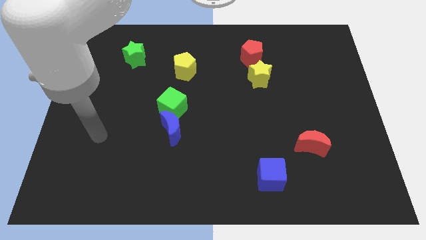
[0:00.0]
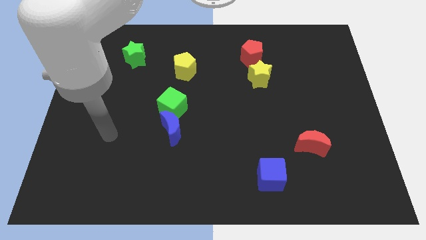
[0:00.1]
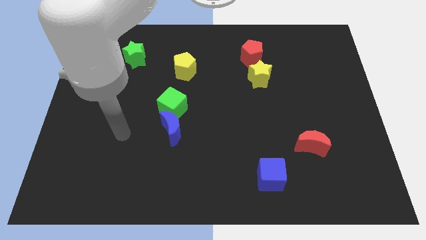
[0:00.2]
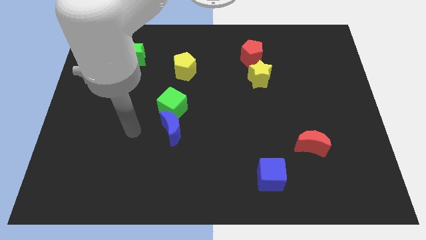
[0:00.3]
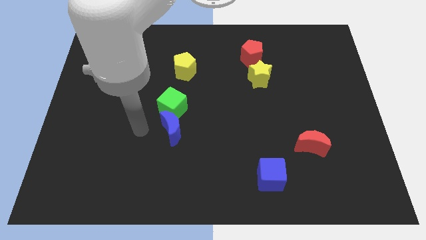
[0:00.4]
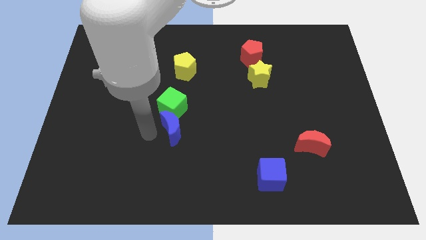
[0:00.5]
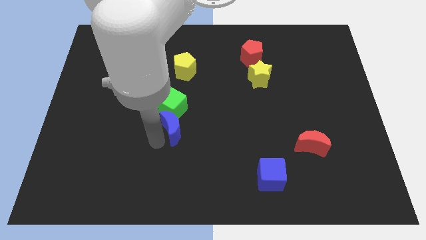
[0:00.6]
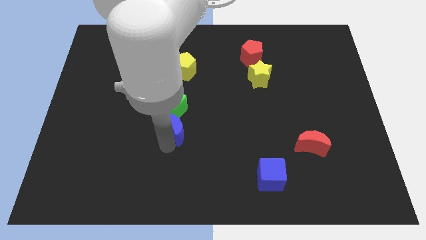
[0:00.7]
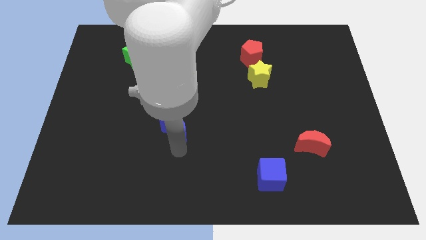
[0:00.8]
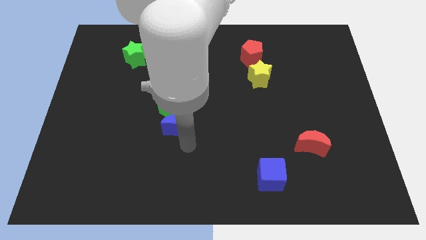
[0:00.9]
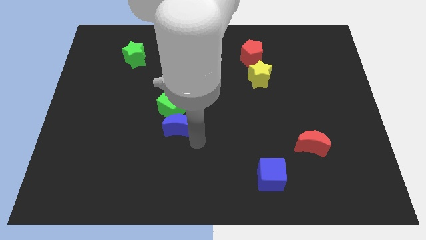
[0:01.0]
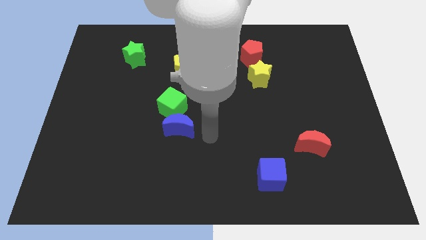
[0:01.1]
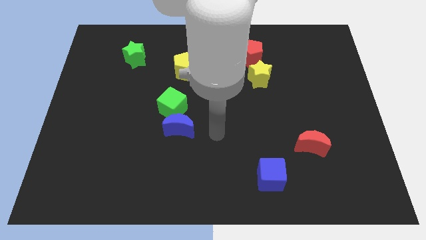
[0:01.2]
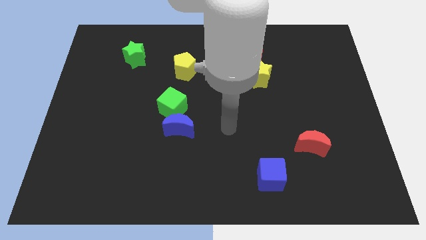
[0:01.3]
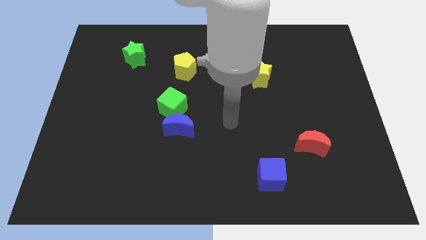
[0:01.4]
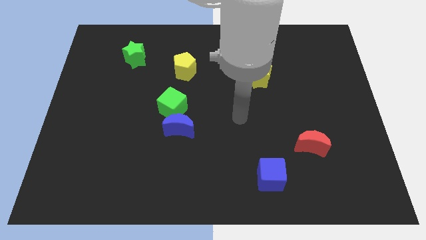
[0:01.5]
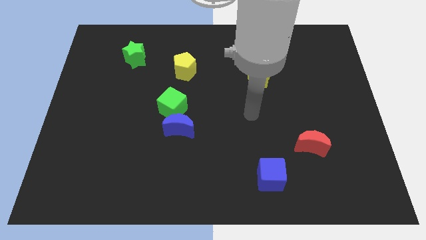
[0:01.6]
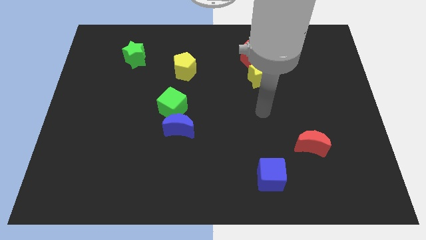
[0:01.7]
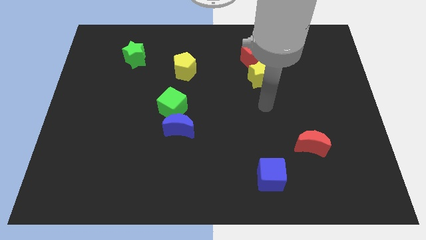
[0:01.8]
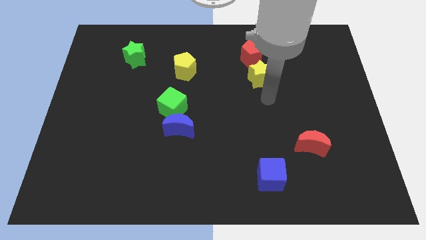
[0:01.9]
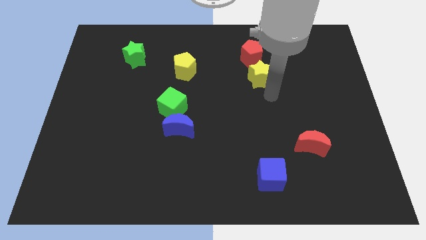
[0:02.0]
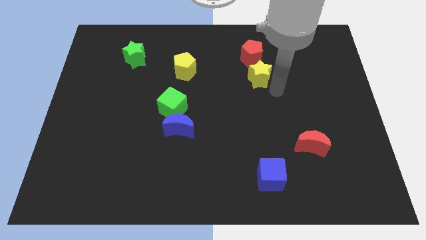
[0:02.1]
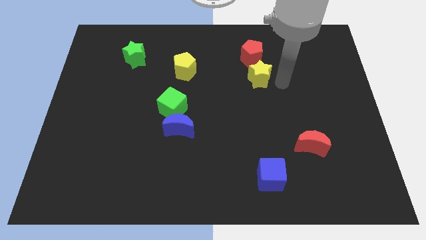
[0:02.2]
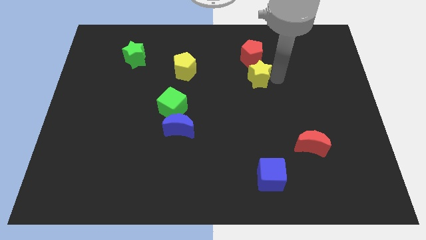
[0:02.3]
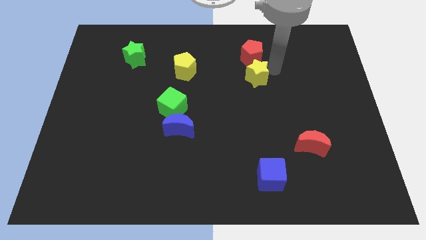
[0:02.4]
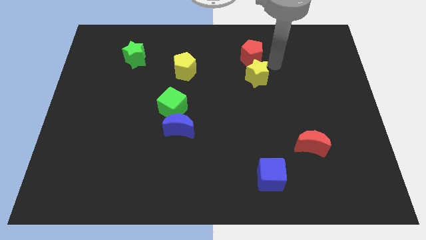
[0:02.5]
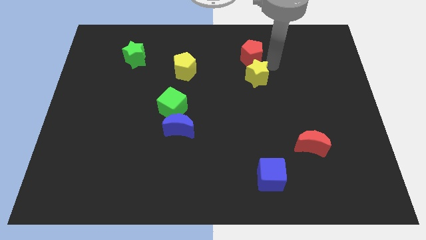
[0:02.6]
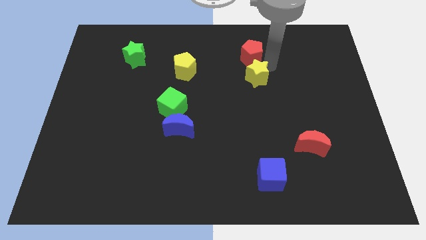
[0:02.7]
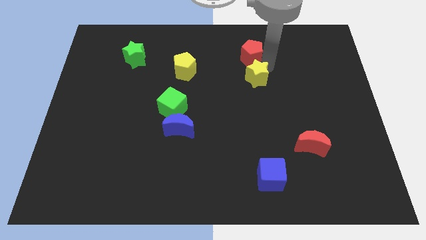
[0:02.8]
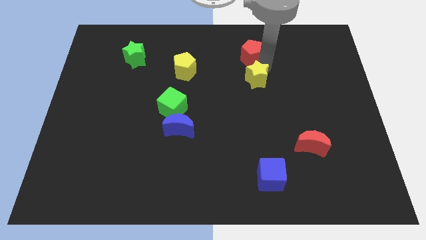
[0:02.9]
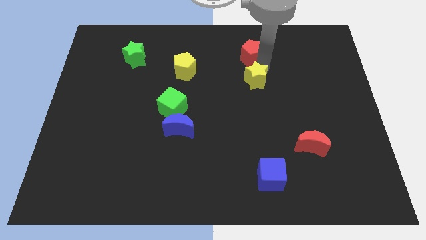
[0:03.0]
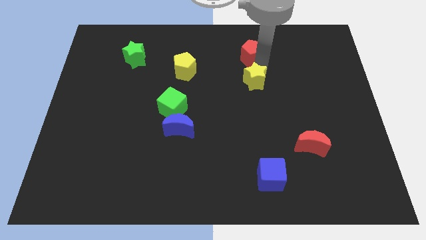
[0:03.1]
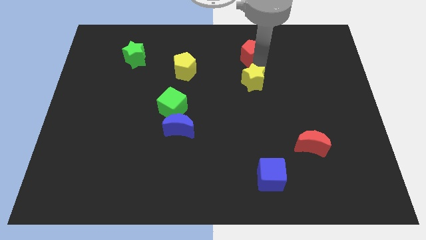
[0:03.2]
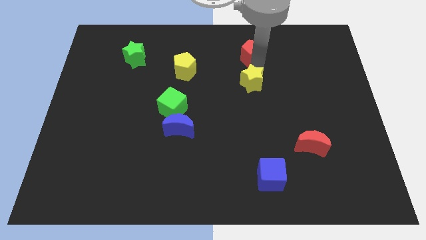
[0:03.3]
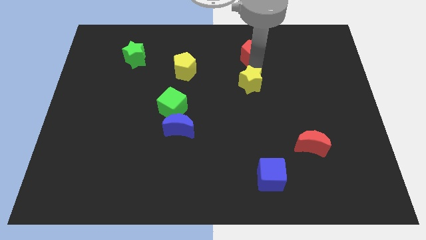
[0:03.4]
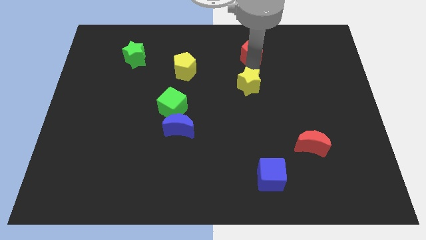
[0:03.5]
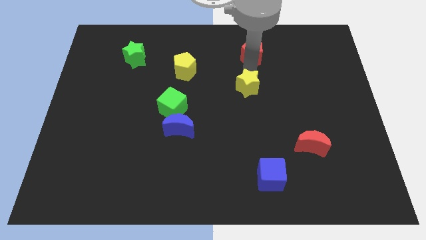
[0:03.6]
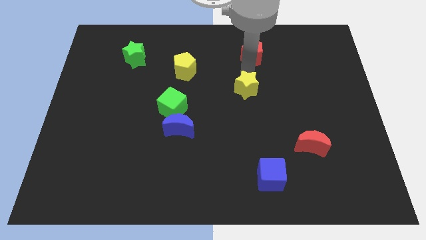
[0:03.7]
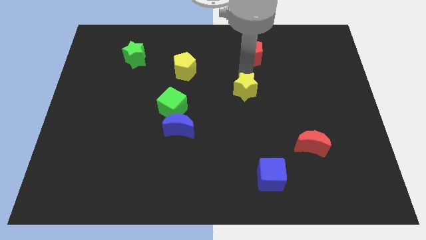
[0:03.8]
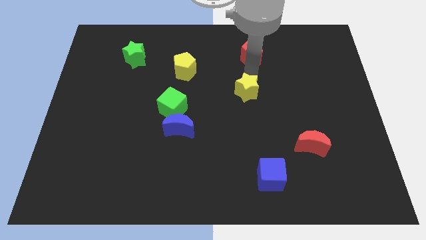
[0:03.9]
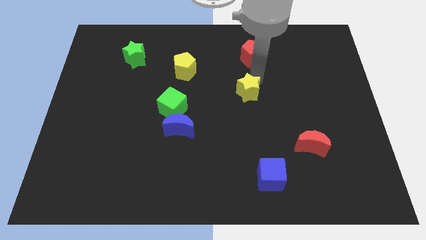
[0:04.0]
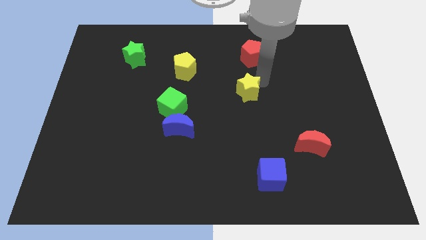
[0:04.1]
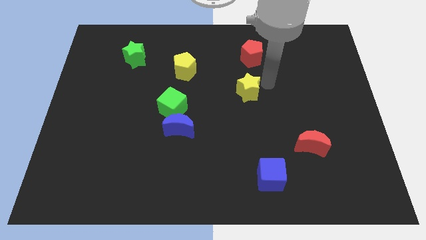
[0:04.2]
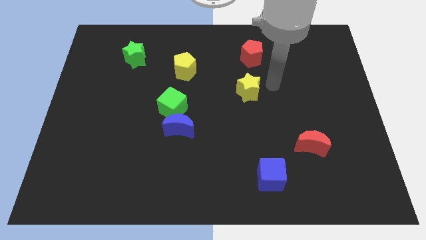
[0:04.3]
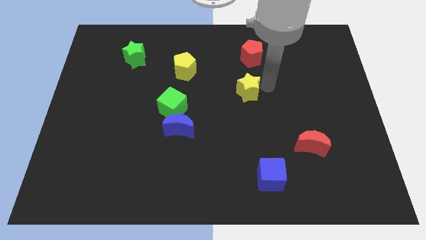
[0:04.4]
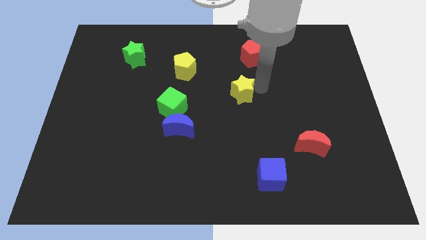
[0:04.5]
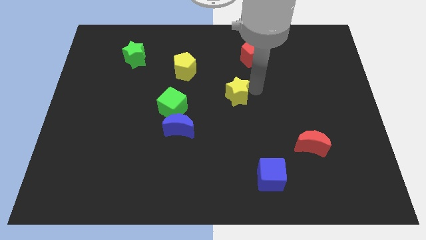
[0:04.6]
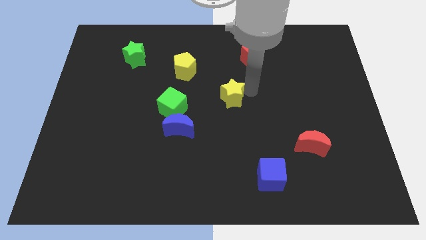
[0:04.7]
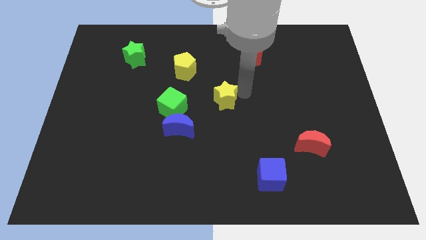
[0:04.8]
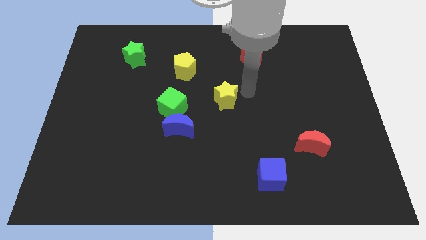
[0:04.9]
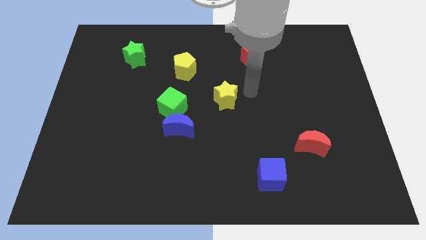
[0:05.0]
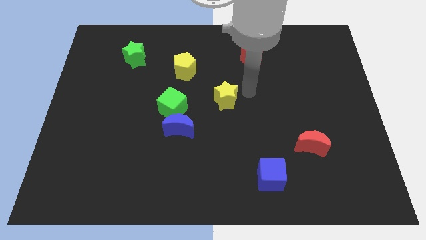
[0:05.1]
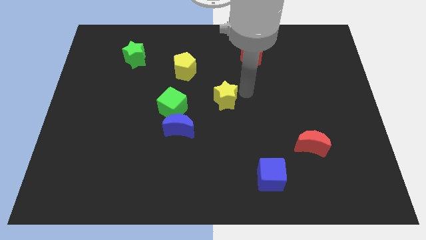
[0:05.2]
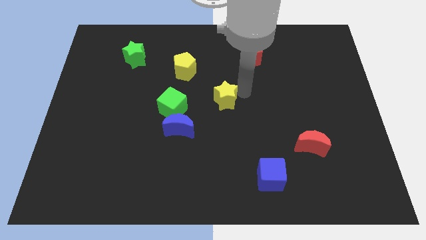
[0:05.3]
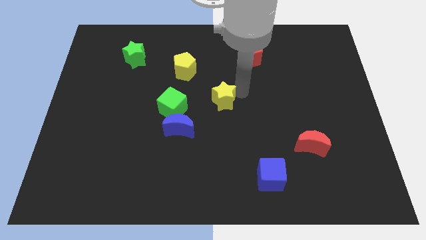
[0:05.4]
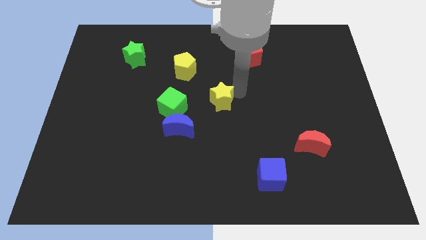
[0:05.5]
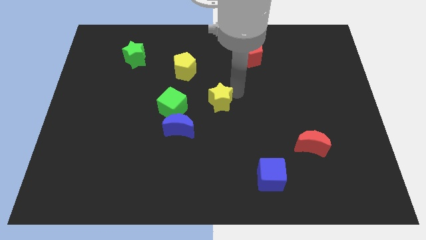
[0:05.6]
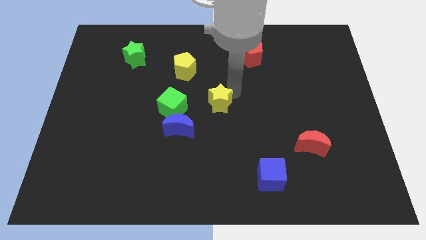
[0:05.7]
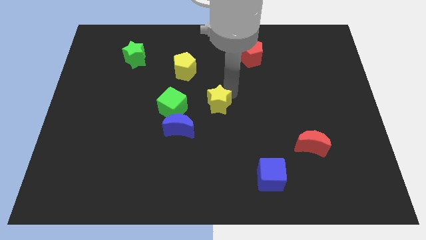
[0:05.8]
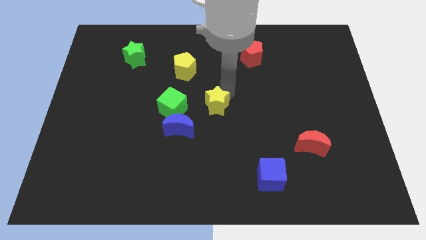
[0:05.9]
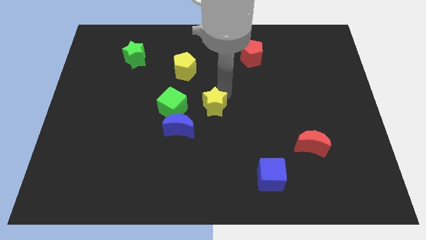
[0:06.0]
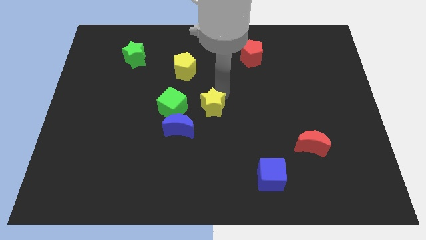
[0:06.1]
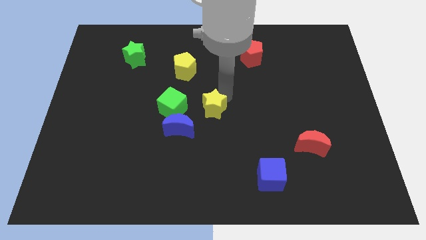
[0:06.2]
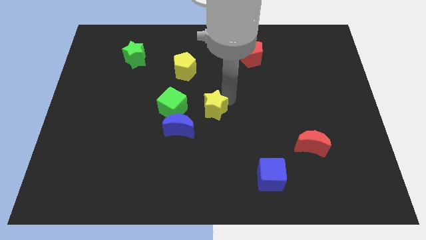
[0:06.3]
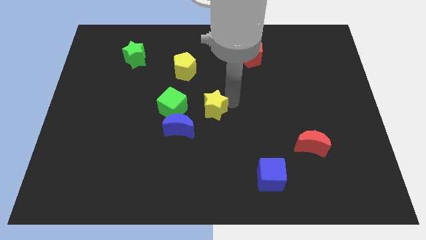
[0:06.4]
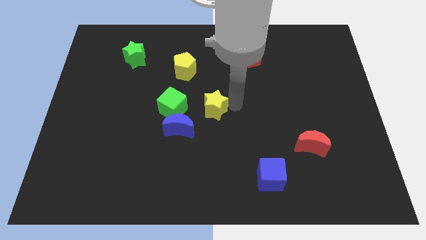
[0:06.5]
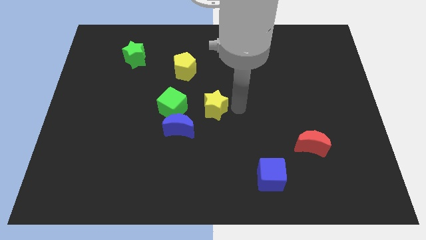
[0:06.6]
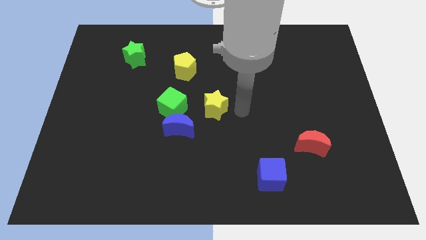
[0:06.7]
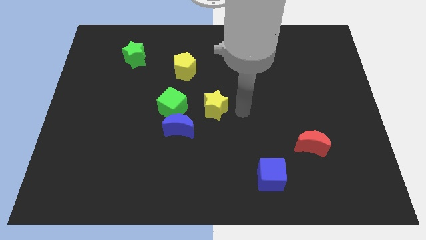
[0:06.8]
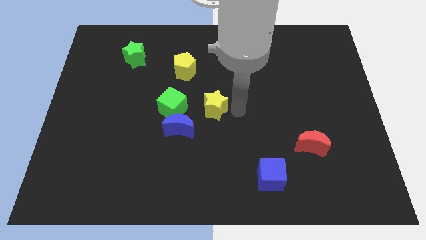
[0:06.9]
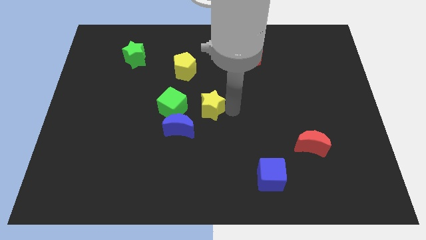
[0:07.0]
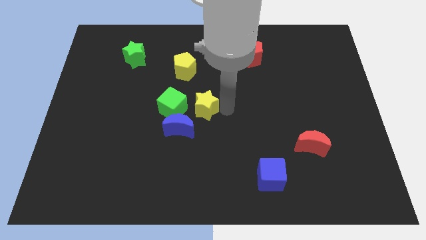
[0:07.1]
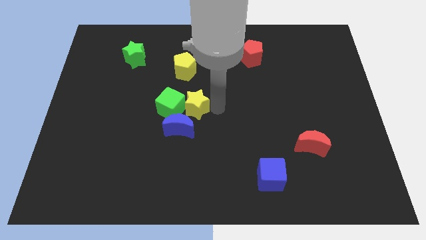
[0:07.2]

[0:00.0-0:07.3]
push the yellow star towards the green cube

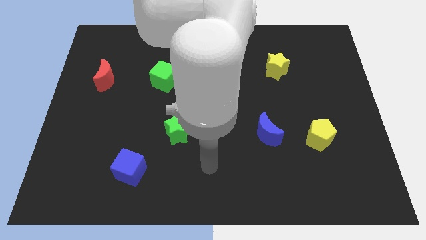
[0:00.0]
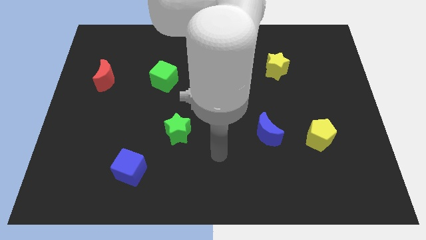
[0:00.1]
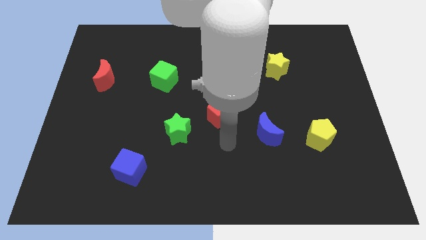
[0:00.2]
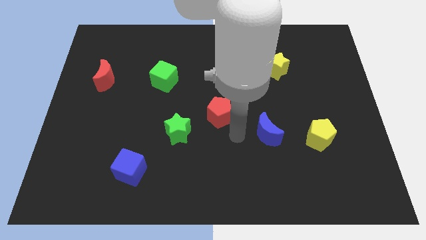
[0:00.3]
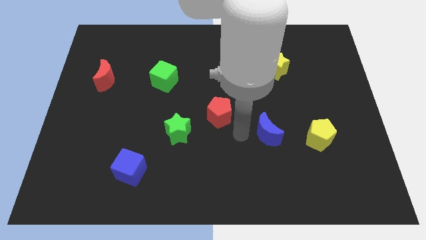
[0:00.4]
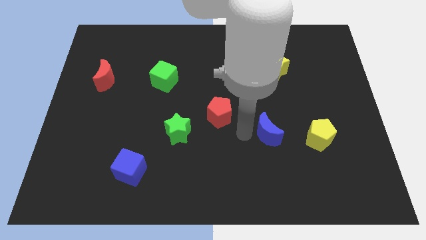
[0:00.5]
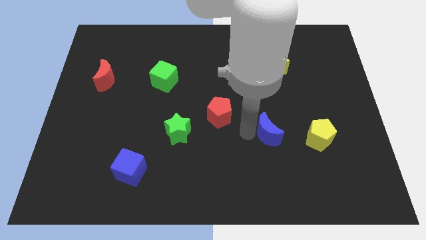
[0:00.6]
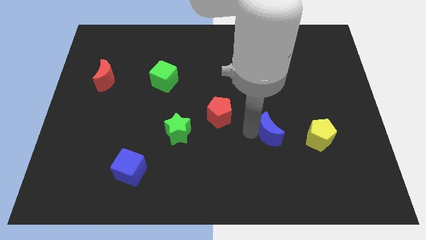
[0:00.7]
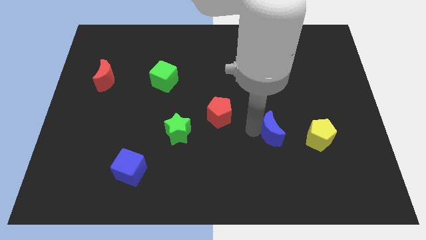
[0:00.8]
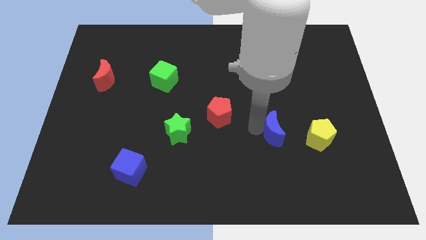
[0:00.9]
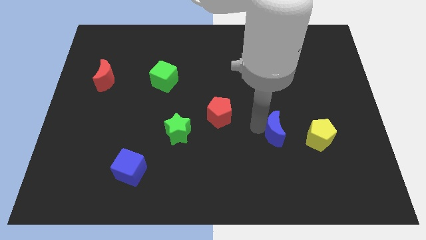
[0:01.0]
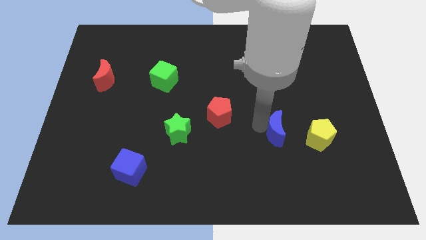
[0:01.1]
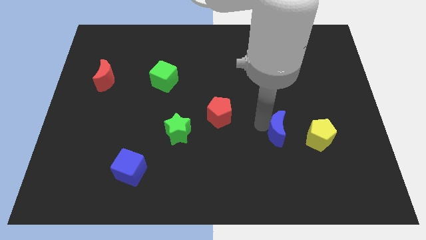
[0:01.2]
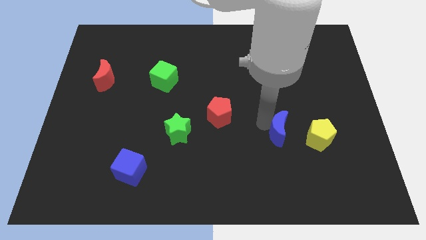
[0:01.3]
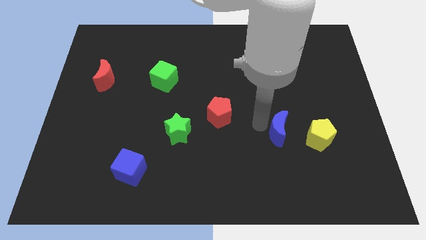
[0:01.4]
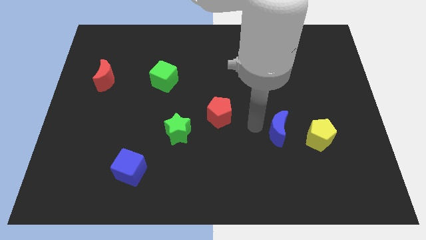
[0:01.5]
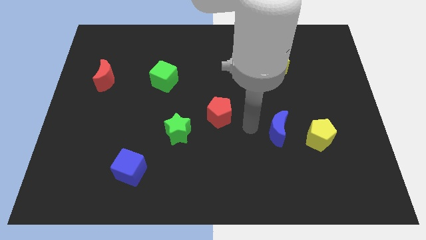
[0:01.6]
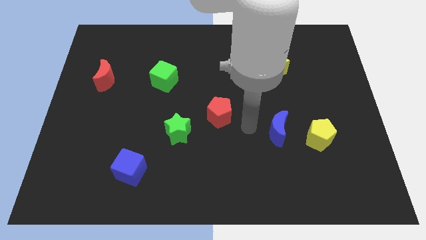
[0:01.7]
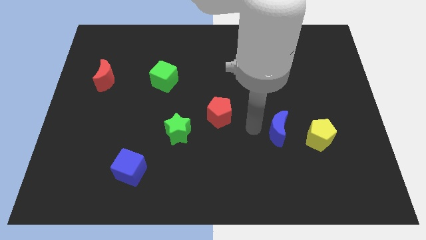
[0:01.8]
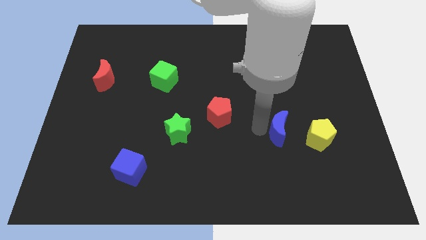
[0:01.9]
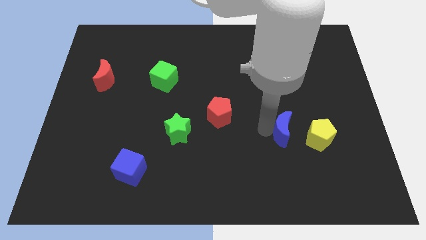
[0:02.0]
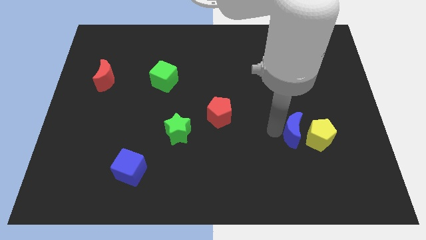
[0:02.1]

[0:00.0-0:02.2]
move the blue moon to the yellow pentagon
